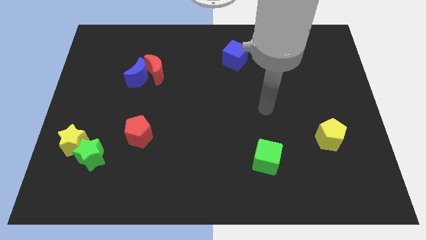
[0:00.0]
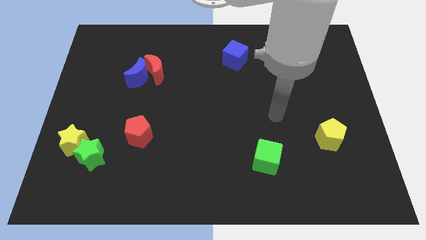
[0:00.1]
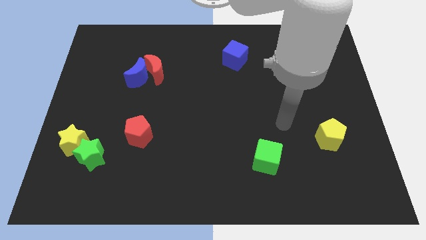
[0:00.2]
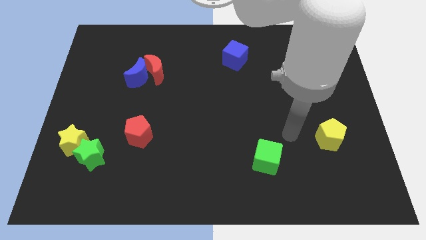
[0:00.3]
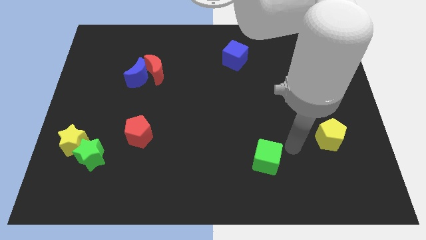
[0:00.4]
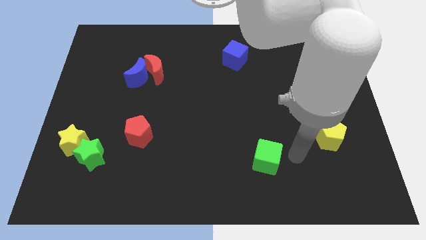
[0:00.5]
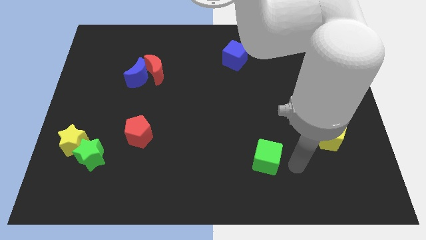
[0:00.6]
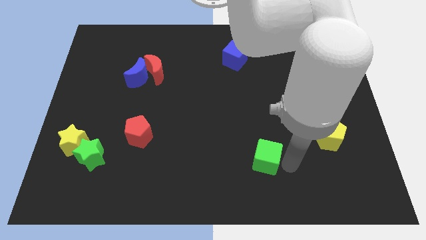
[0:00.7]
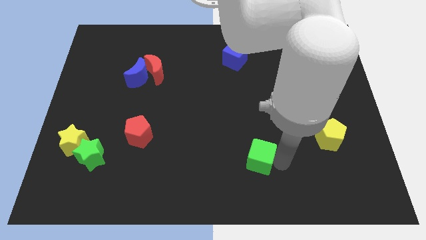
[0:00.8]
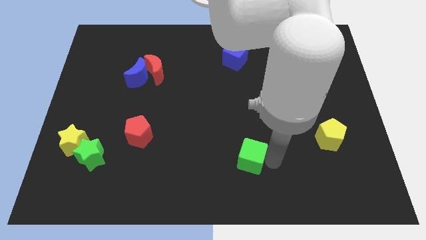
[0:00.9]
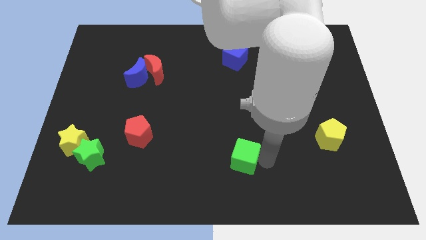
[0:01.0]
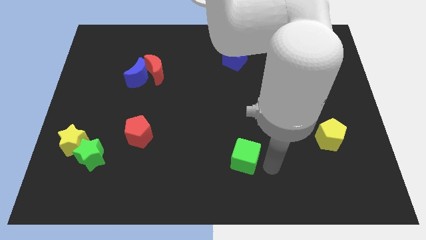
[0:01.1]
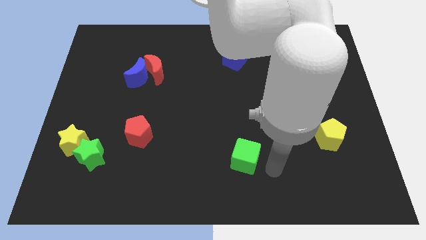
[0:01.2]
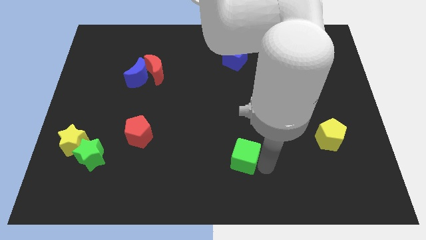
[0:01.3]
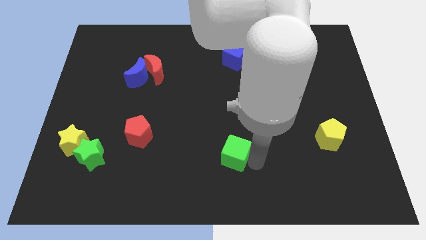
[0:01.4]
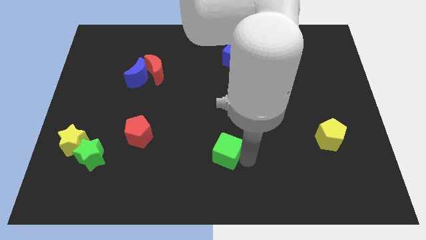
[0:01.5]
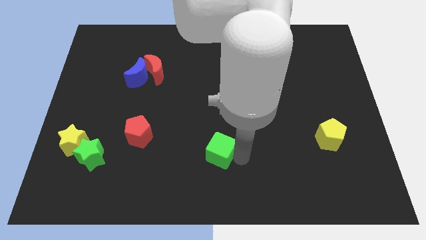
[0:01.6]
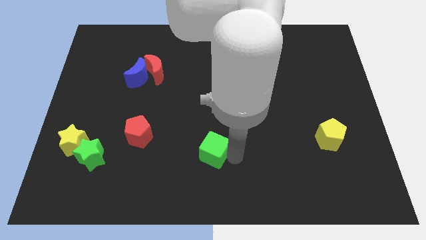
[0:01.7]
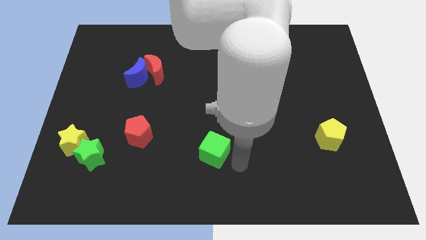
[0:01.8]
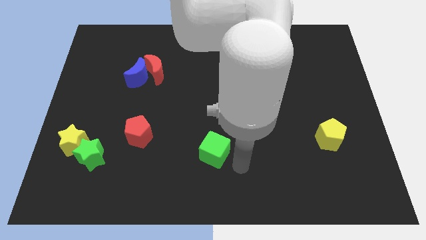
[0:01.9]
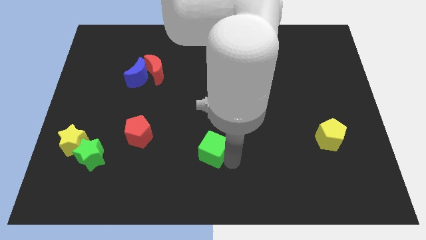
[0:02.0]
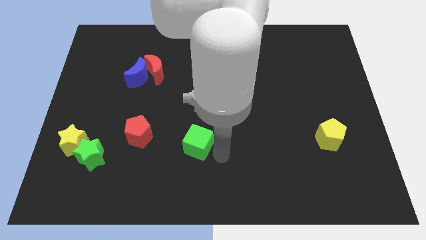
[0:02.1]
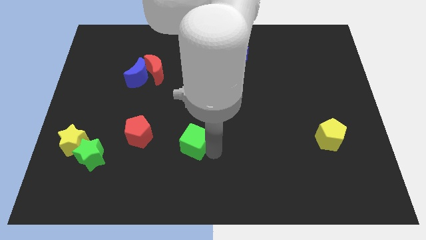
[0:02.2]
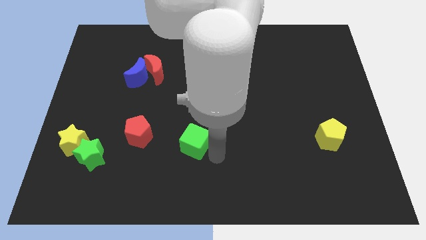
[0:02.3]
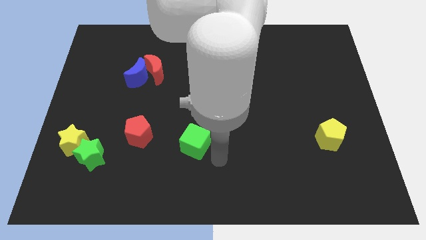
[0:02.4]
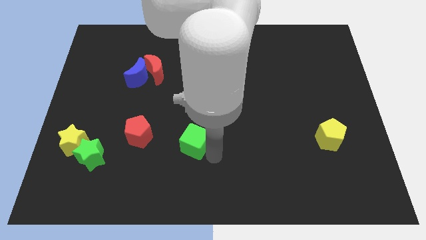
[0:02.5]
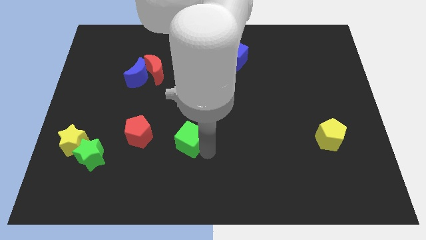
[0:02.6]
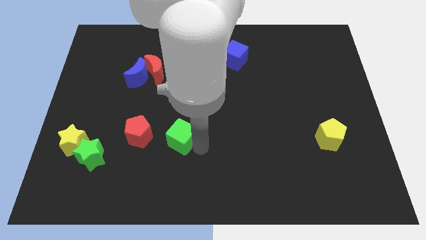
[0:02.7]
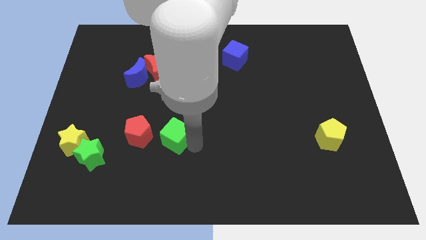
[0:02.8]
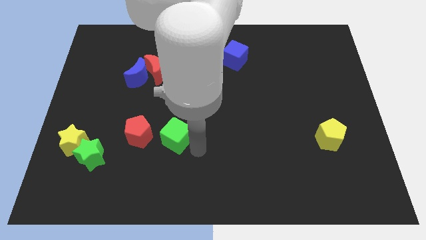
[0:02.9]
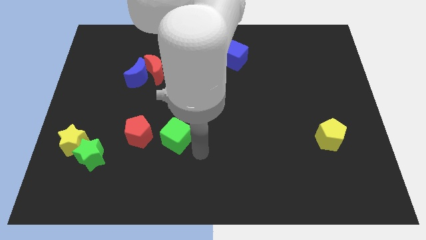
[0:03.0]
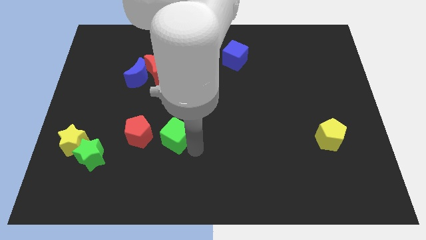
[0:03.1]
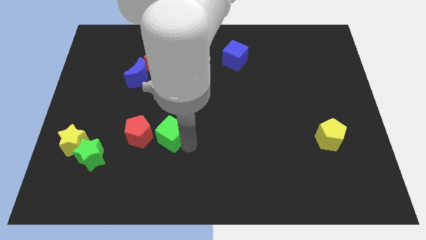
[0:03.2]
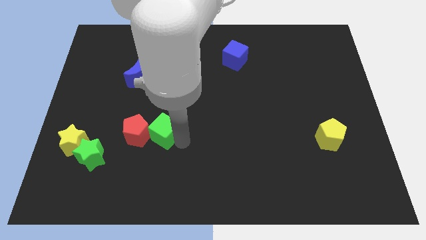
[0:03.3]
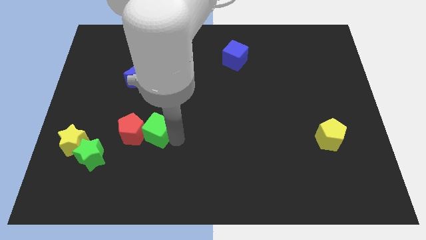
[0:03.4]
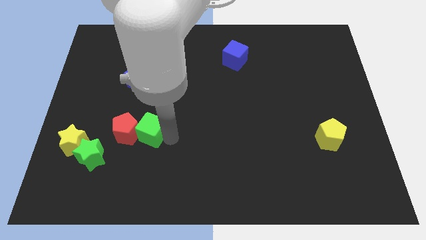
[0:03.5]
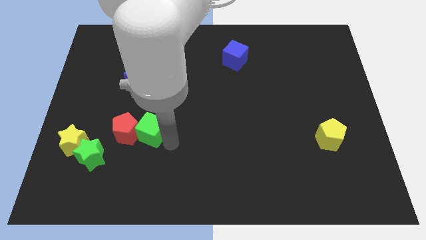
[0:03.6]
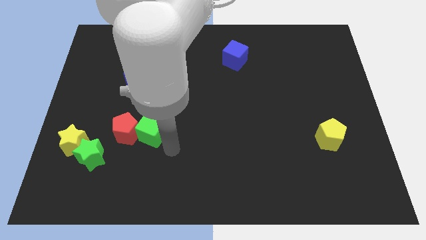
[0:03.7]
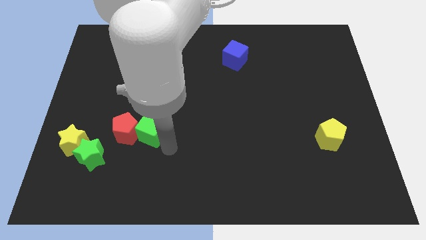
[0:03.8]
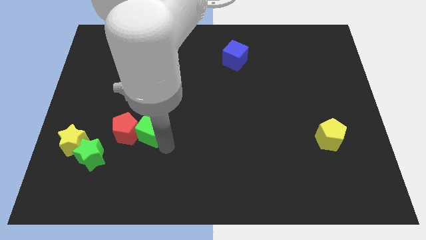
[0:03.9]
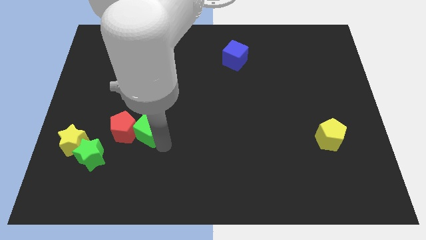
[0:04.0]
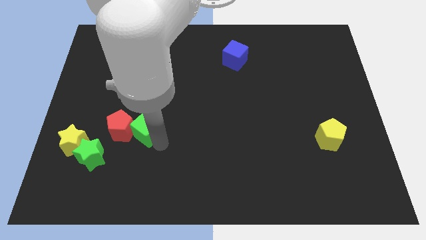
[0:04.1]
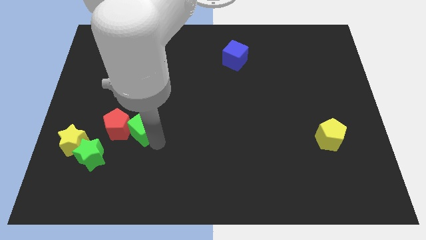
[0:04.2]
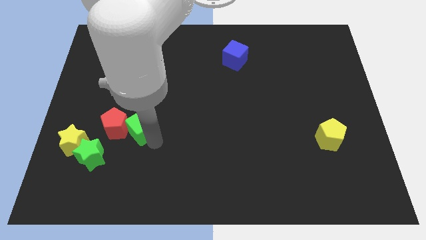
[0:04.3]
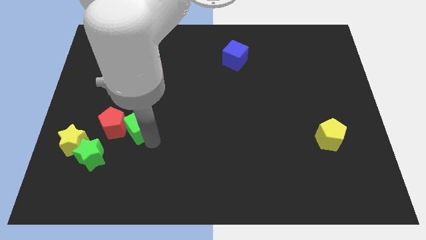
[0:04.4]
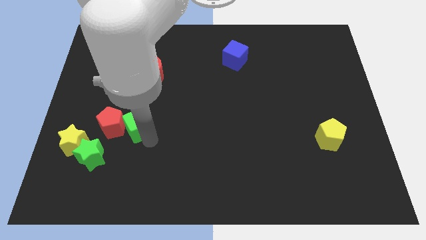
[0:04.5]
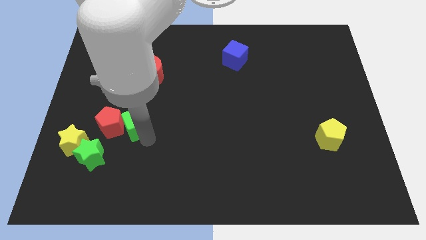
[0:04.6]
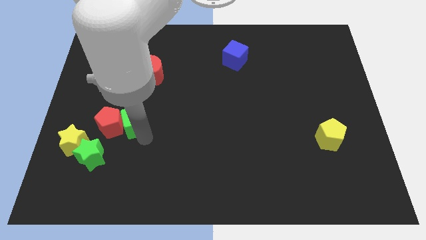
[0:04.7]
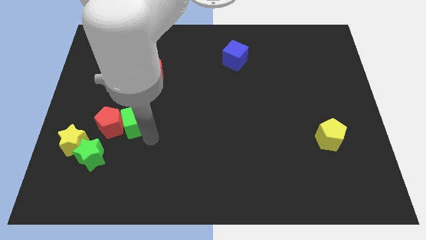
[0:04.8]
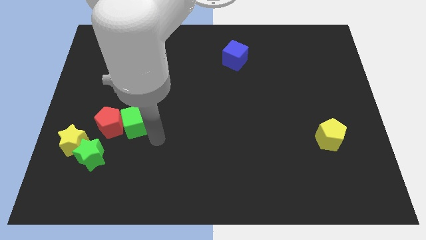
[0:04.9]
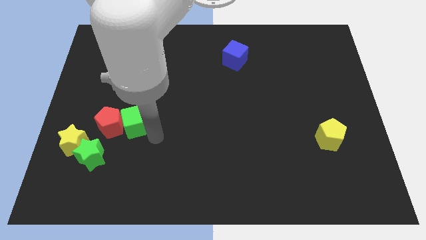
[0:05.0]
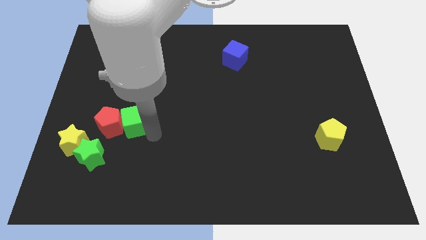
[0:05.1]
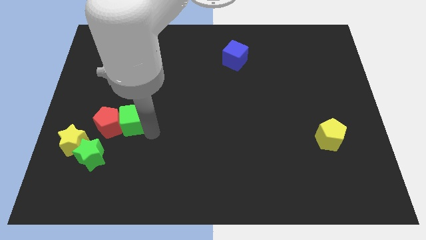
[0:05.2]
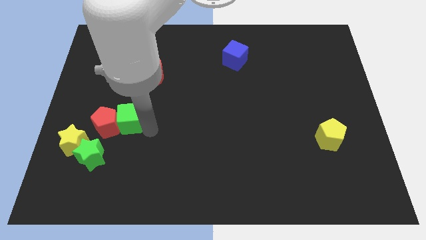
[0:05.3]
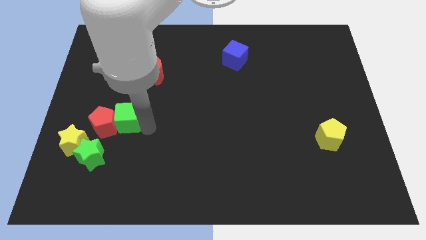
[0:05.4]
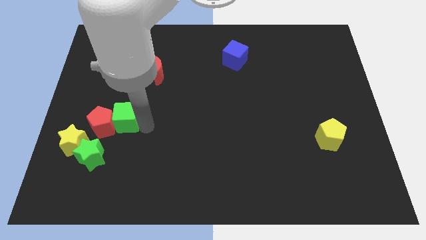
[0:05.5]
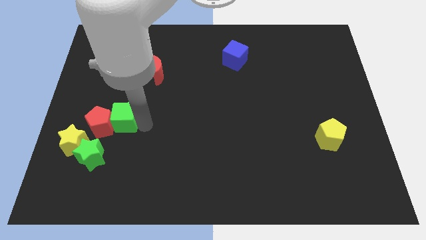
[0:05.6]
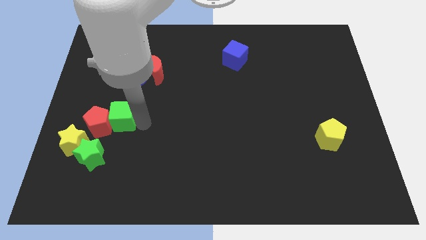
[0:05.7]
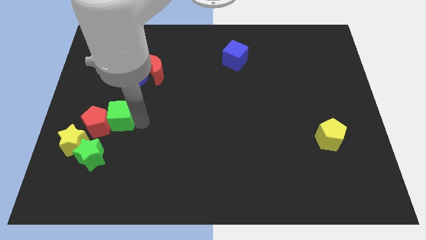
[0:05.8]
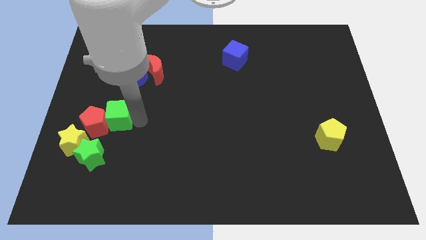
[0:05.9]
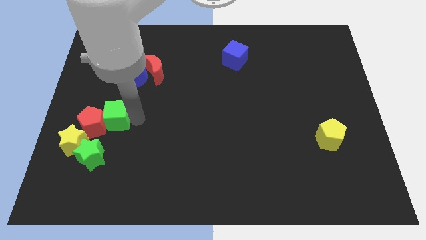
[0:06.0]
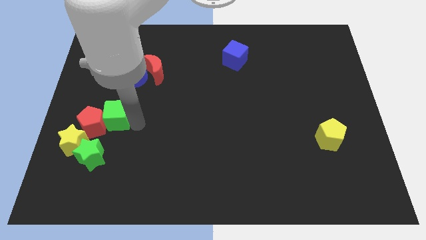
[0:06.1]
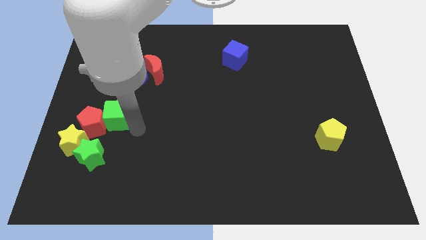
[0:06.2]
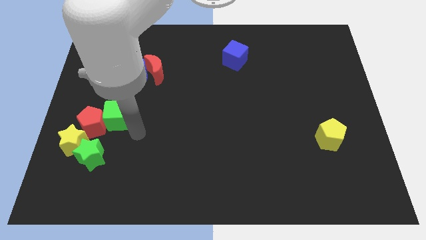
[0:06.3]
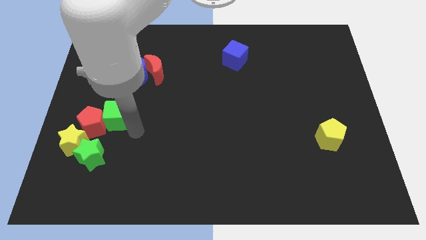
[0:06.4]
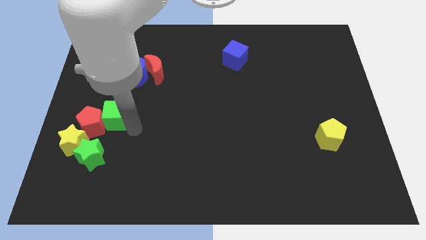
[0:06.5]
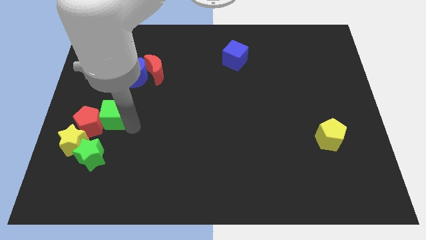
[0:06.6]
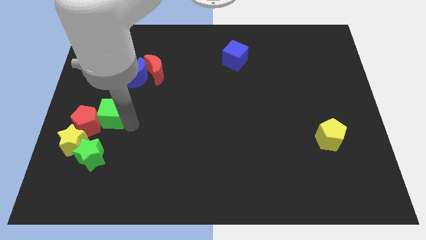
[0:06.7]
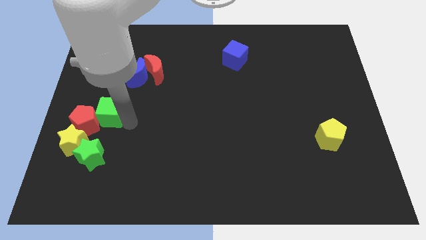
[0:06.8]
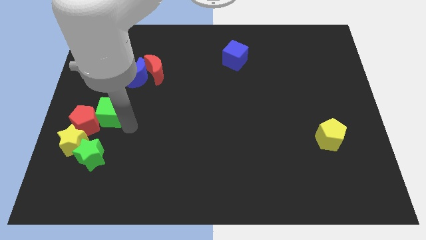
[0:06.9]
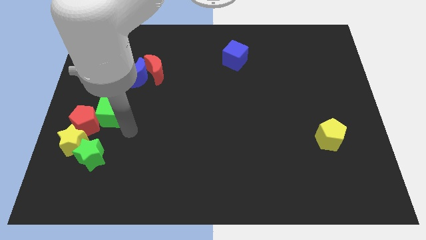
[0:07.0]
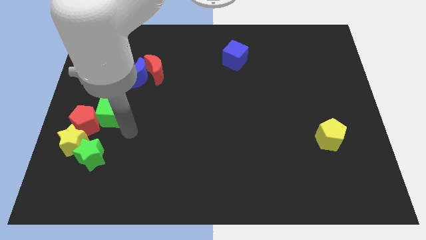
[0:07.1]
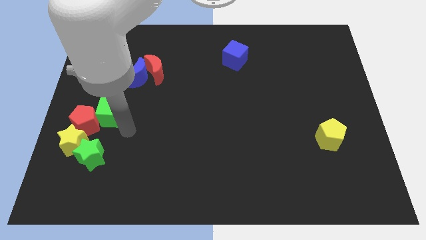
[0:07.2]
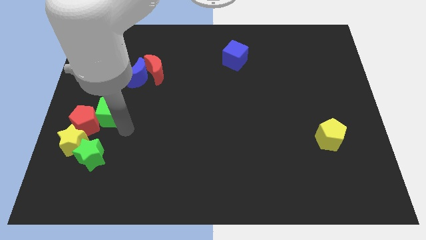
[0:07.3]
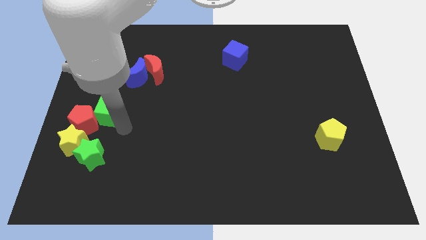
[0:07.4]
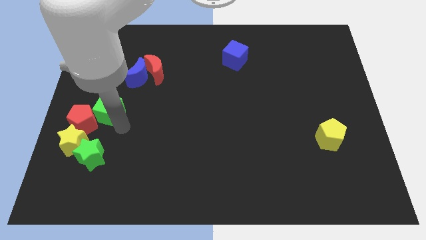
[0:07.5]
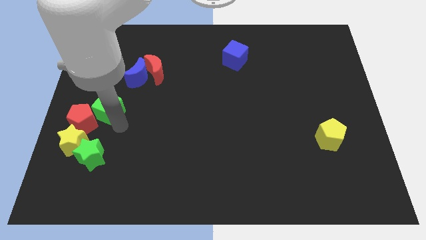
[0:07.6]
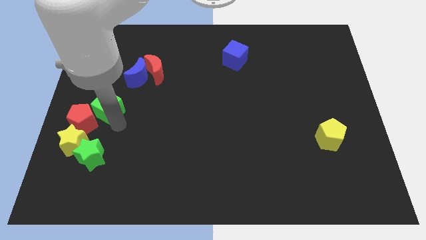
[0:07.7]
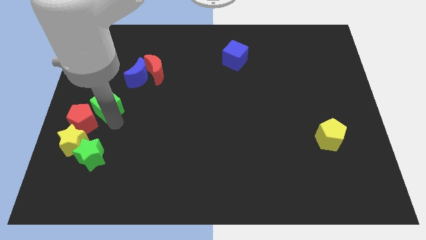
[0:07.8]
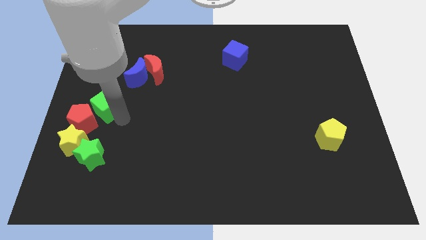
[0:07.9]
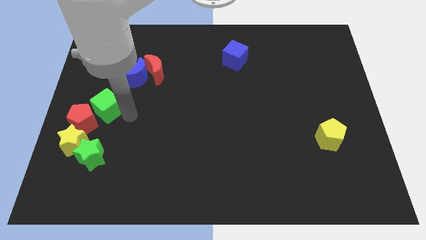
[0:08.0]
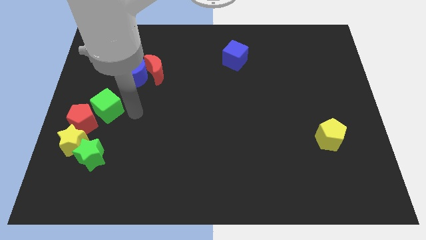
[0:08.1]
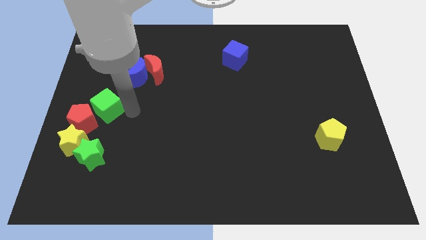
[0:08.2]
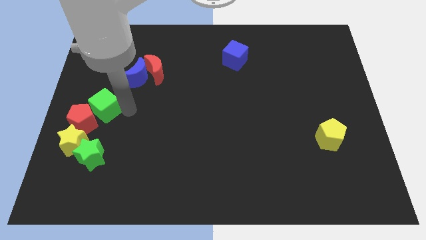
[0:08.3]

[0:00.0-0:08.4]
push the green cube to the left side
